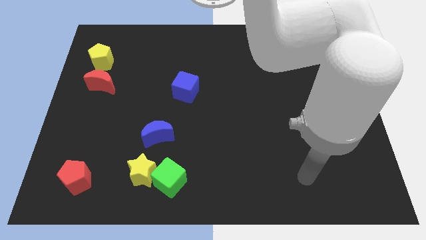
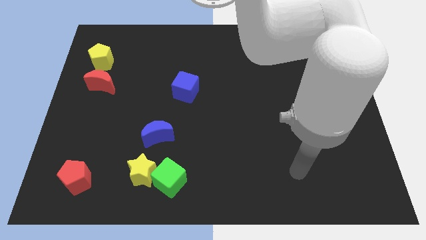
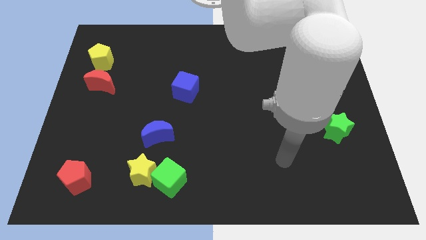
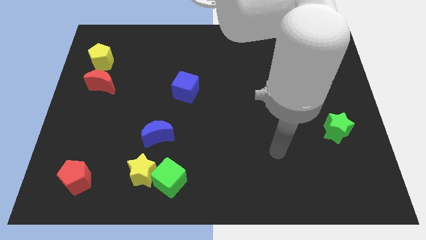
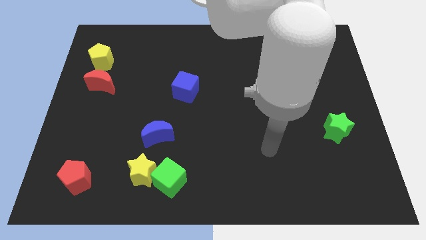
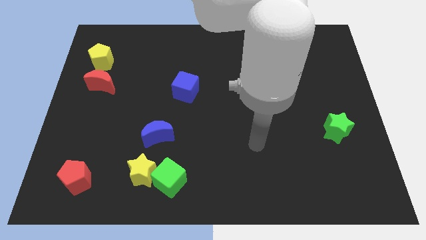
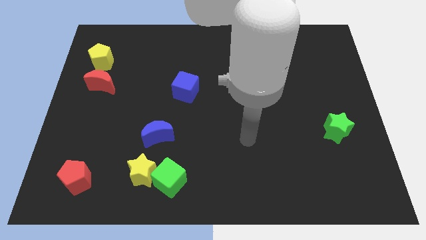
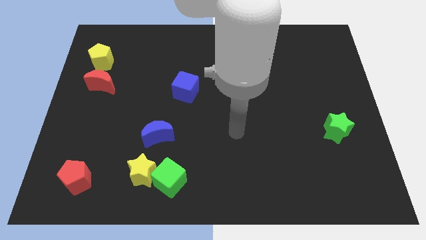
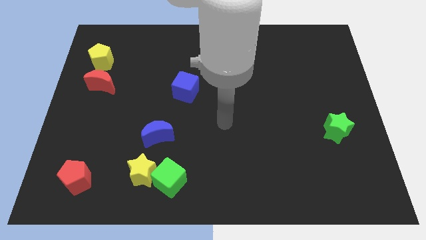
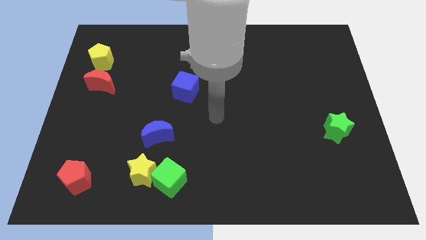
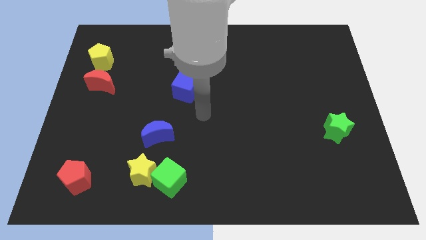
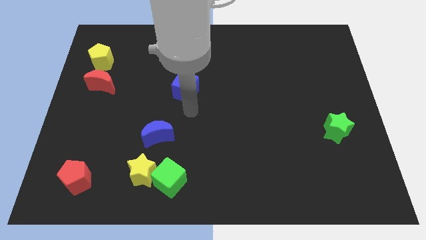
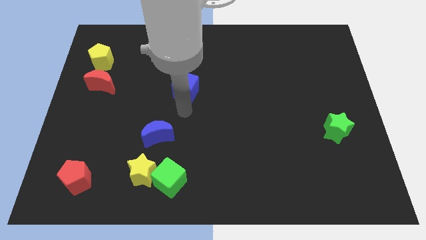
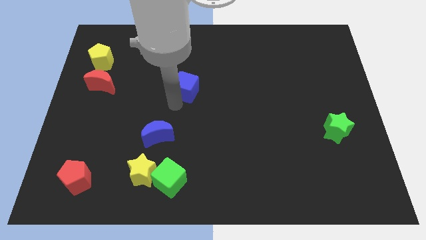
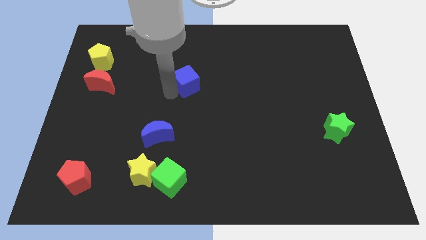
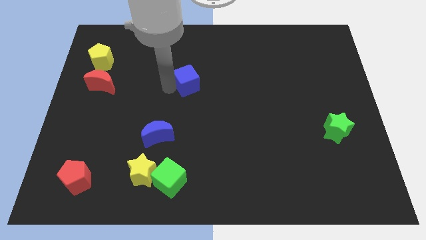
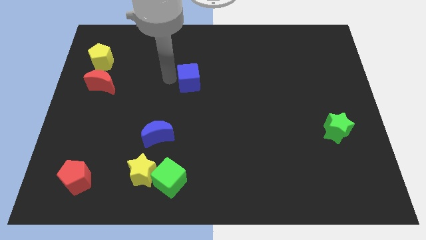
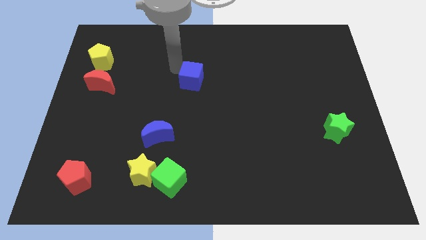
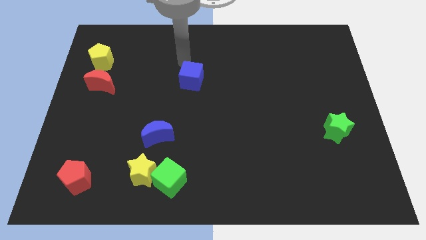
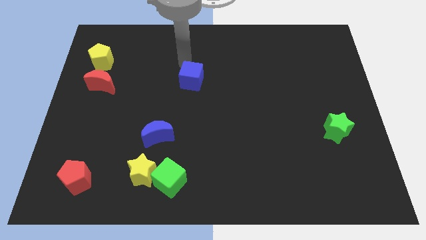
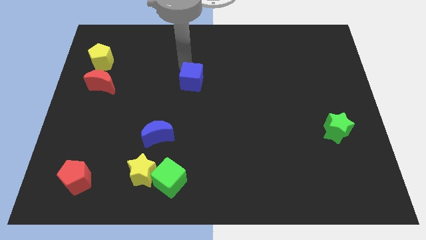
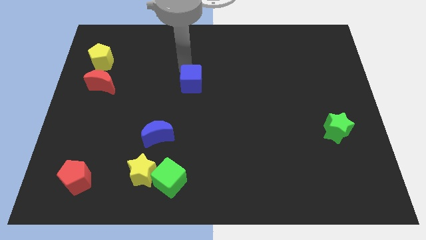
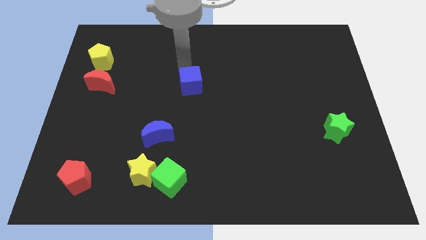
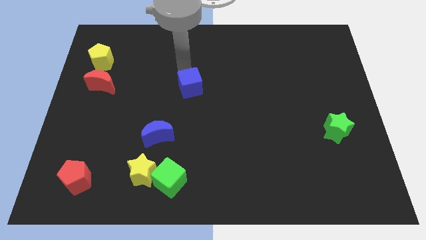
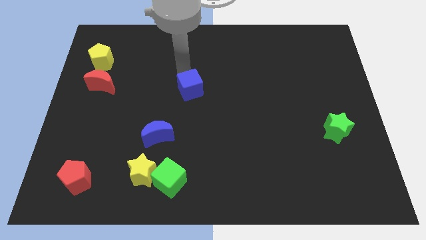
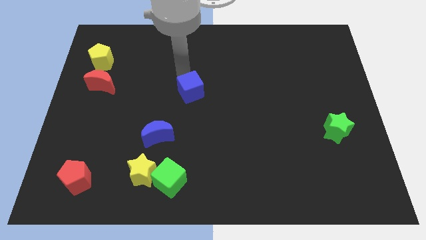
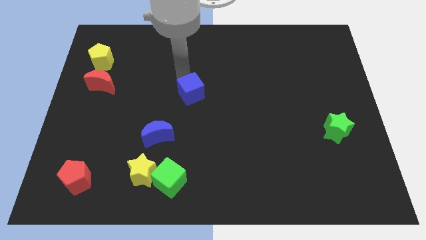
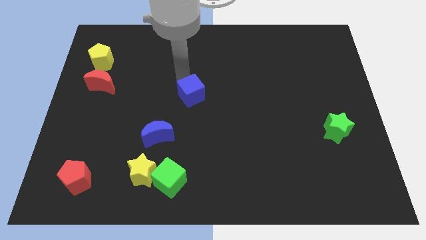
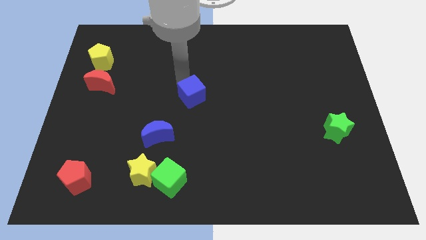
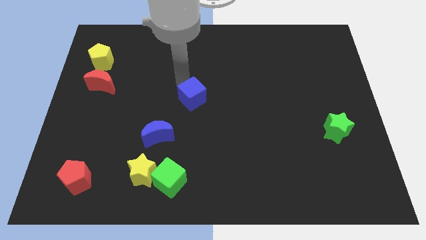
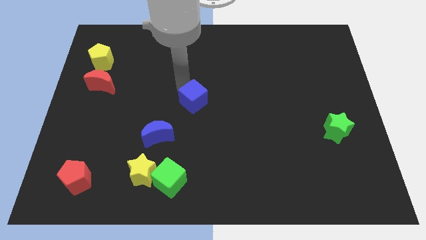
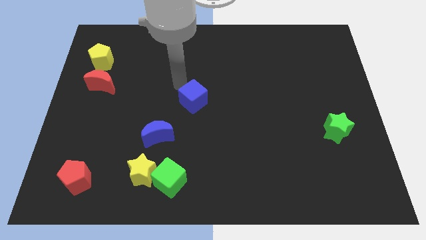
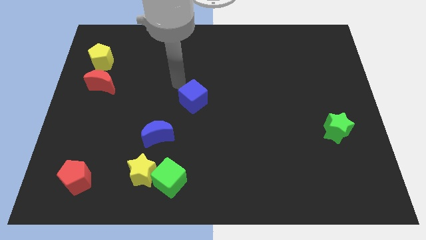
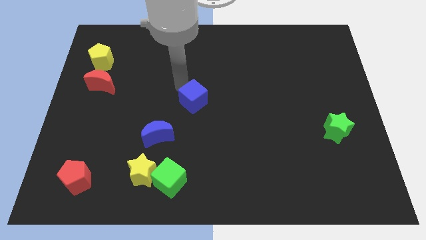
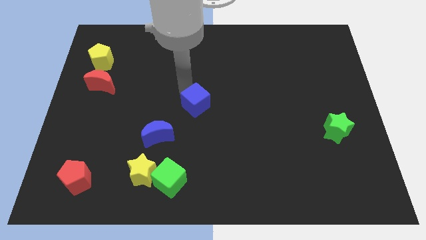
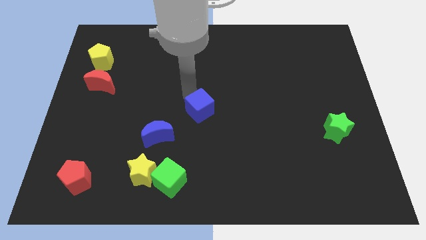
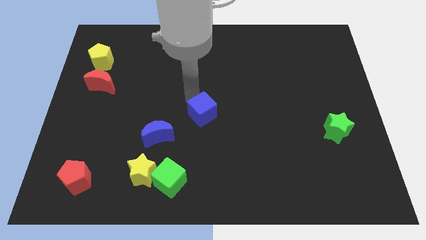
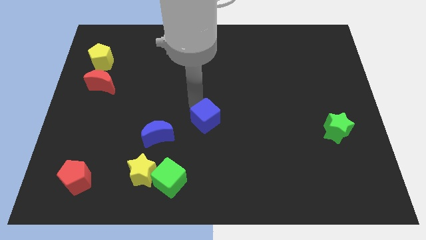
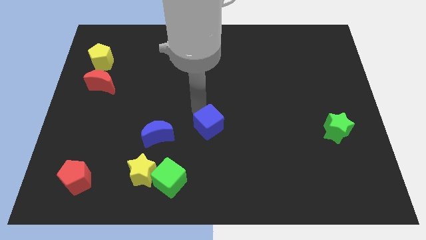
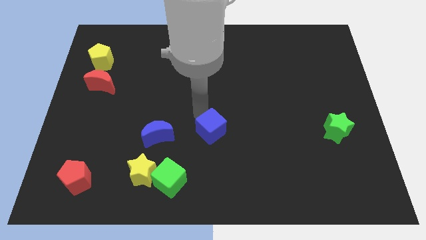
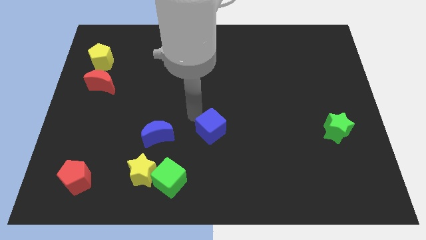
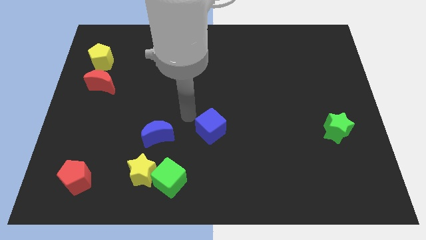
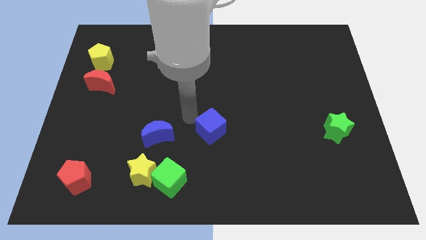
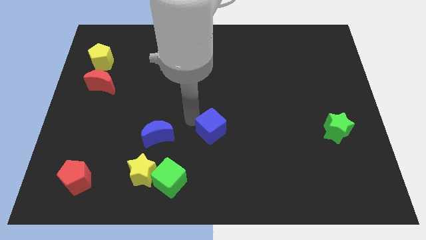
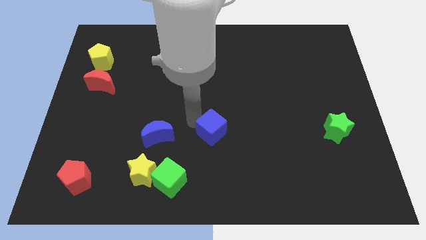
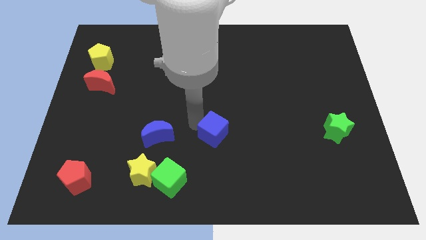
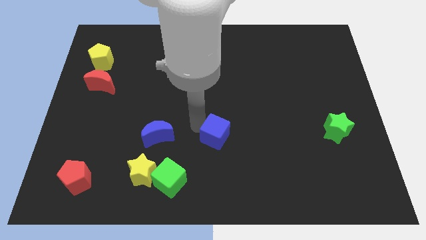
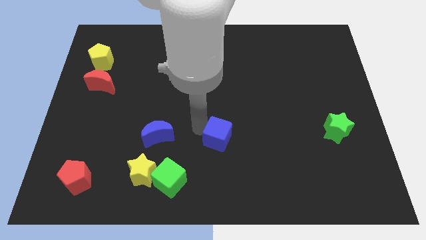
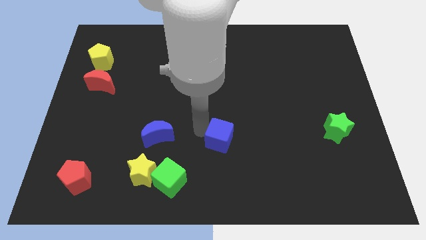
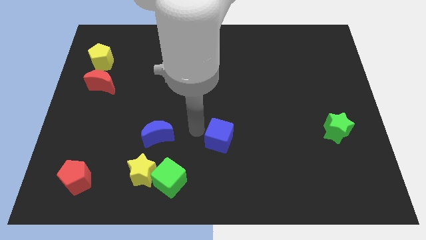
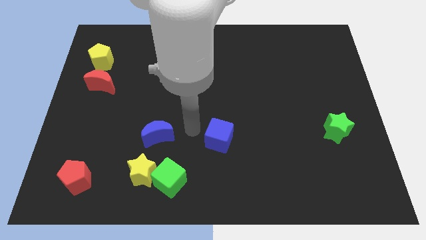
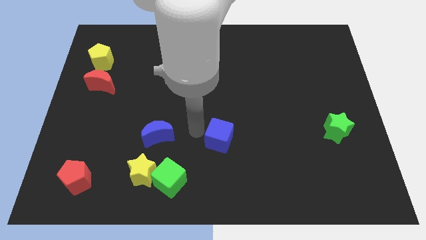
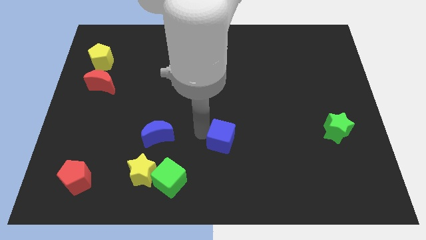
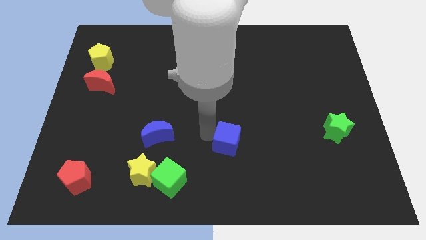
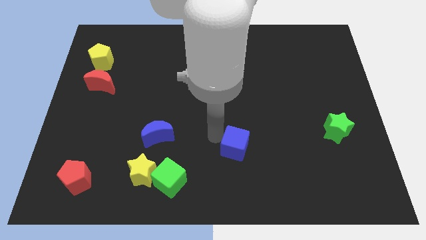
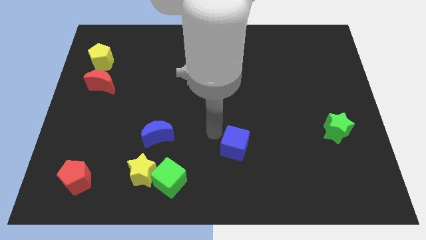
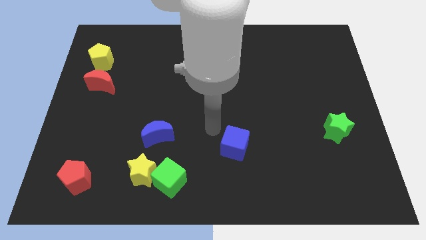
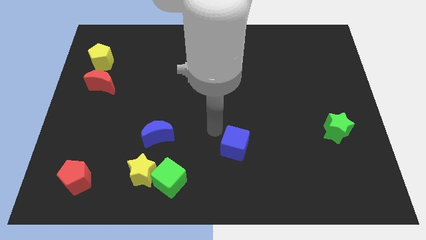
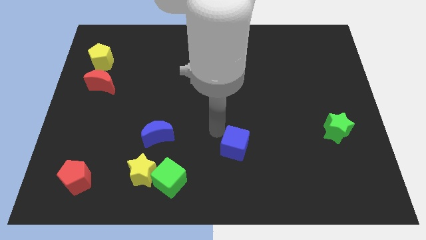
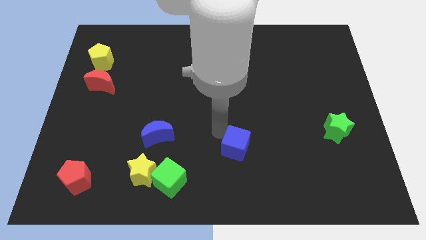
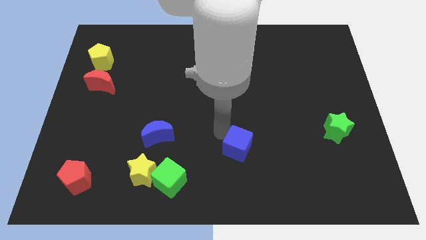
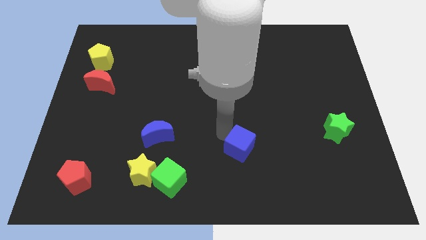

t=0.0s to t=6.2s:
move the blue cube diagonally downwards and to the right

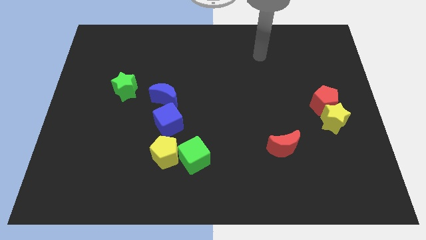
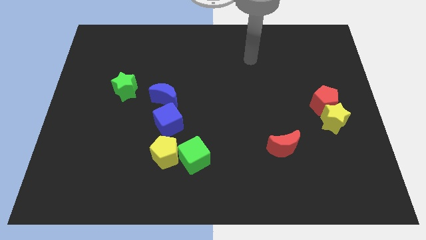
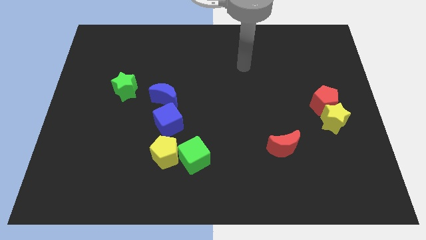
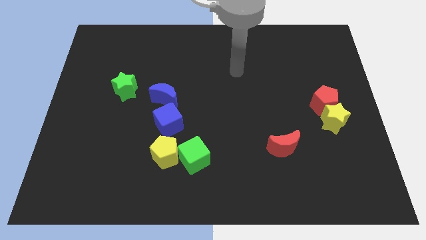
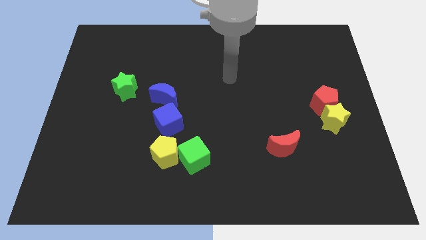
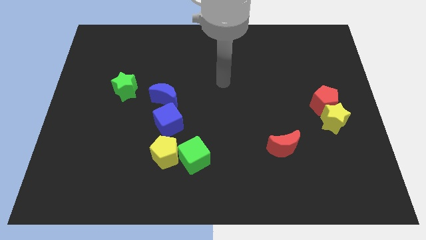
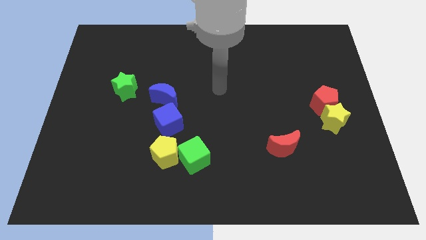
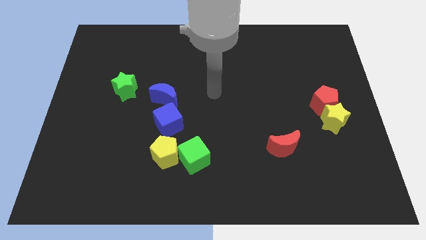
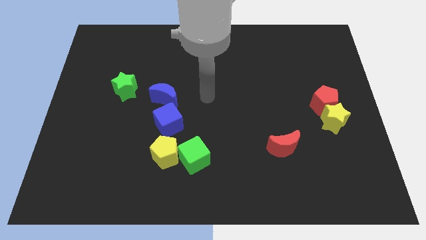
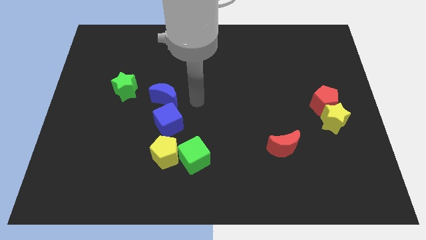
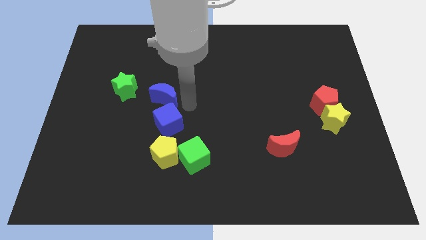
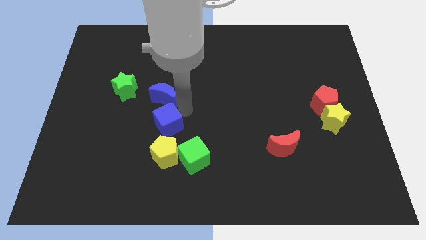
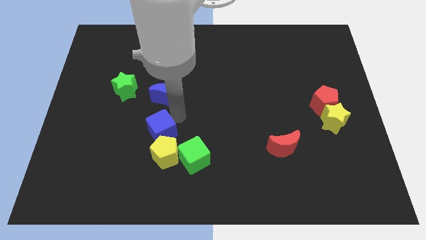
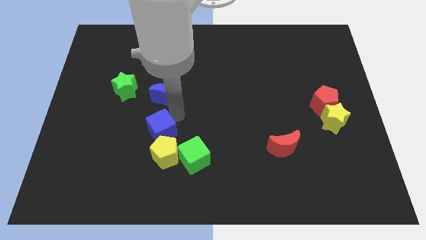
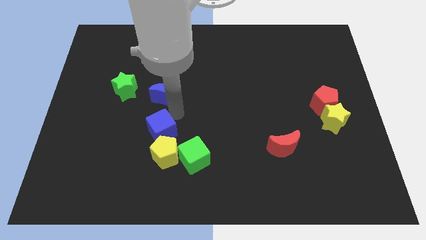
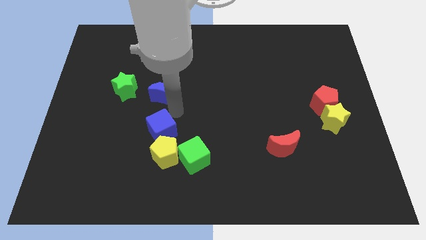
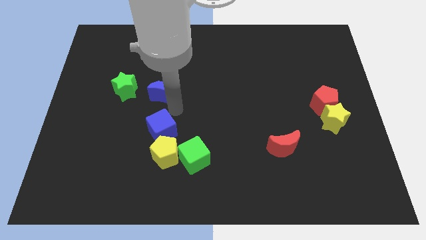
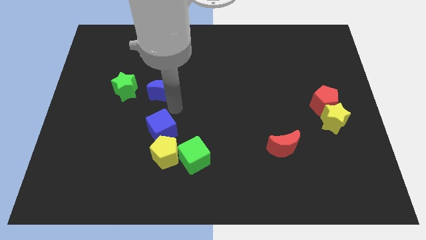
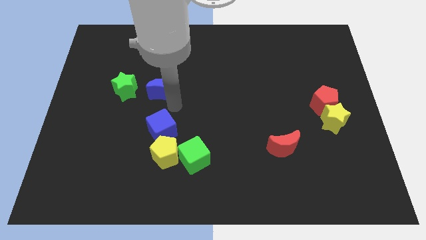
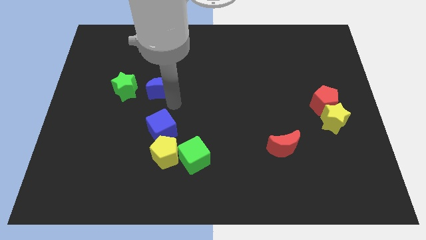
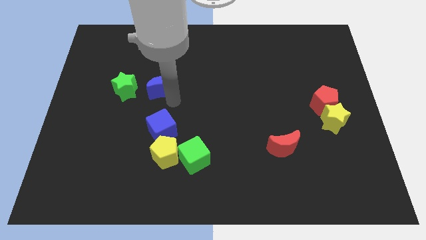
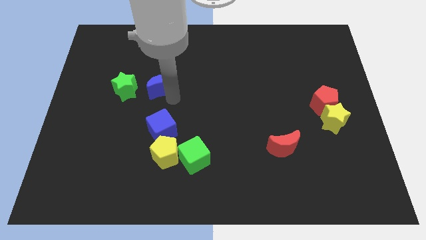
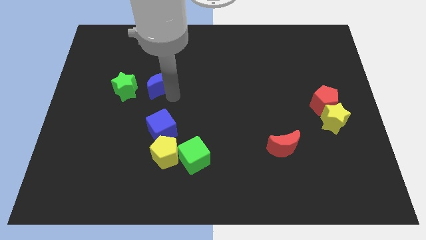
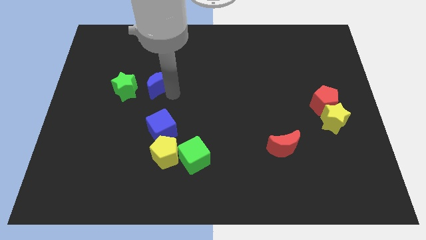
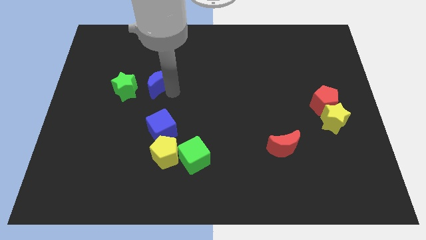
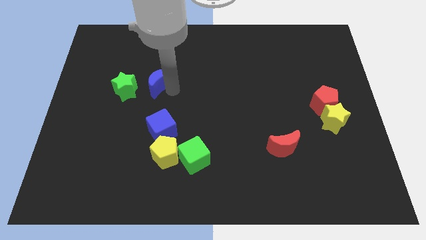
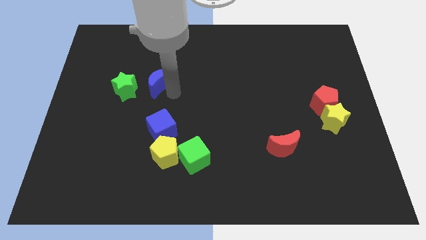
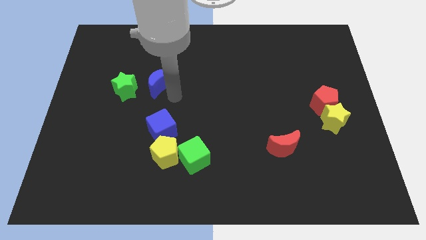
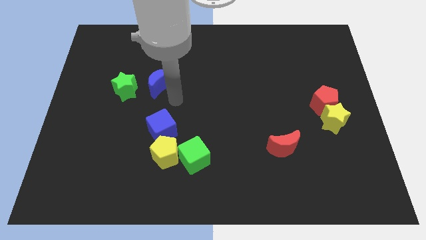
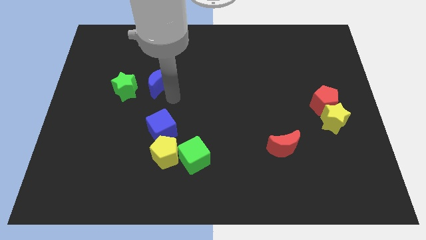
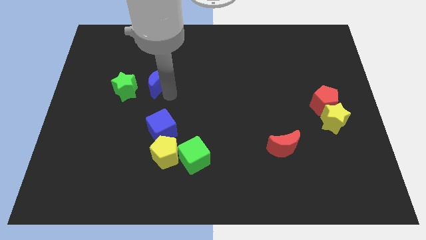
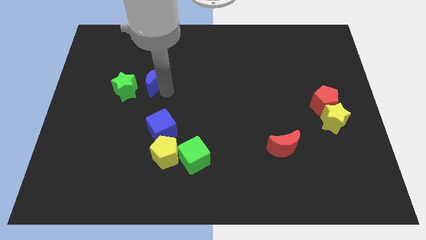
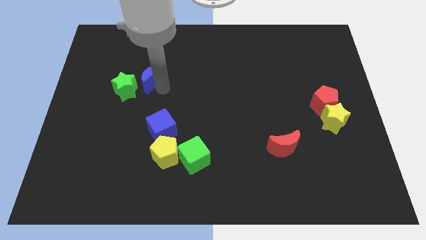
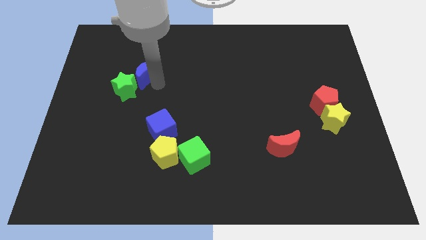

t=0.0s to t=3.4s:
slightly push the blue moon diagonally upwards and to the left
